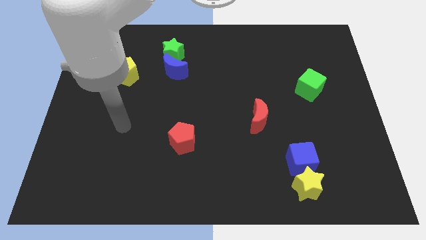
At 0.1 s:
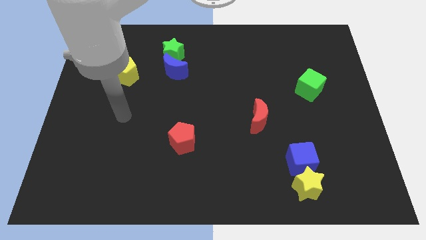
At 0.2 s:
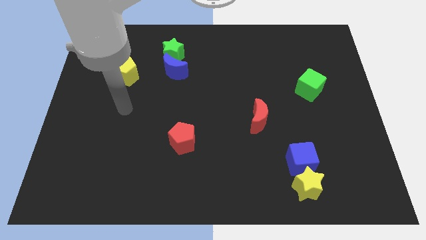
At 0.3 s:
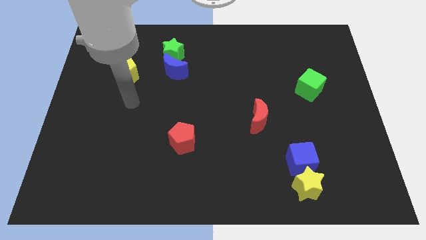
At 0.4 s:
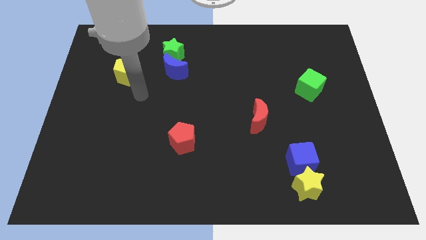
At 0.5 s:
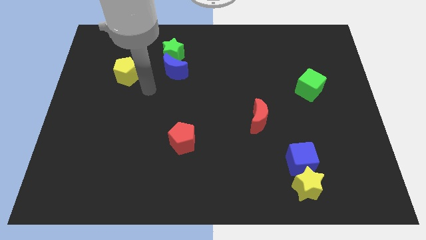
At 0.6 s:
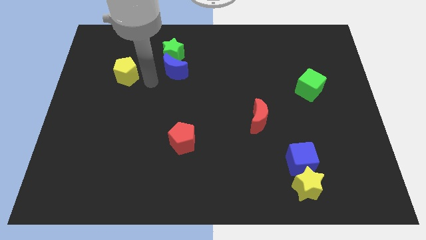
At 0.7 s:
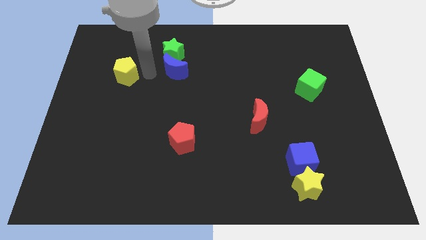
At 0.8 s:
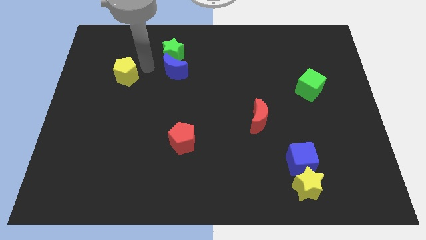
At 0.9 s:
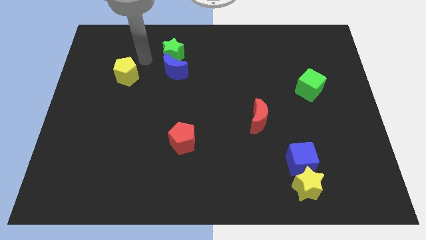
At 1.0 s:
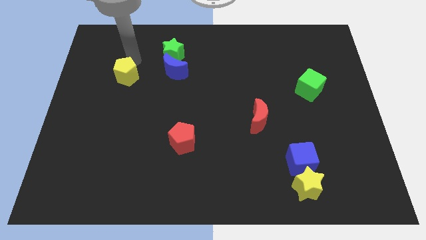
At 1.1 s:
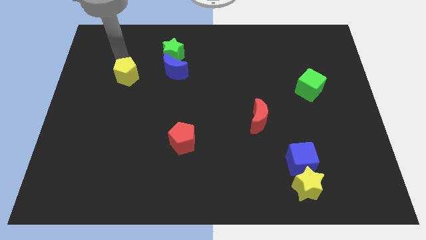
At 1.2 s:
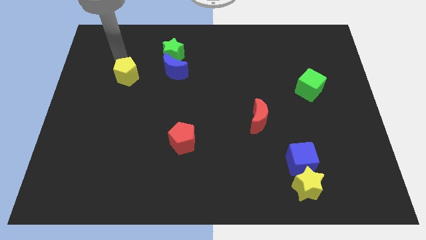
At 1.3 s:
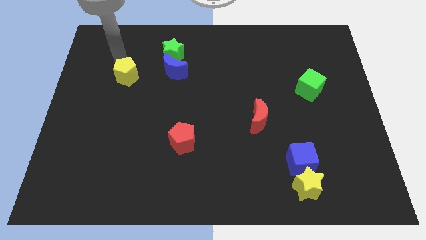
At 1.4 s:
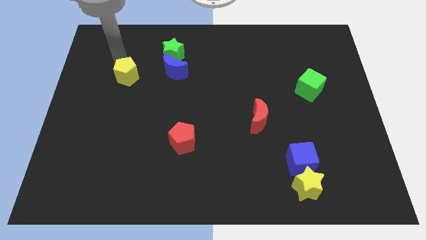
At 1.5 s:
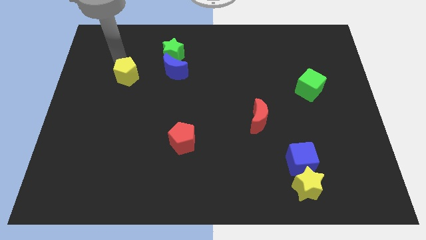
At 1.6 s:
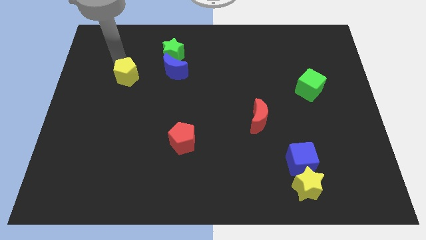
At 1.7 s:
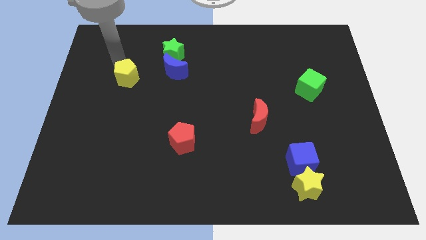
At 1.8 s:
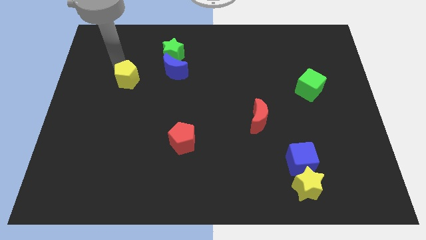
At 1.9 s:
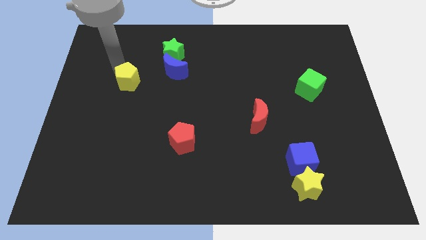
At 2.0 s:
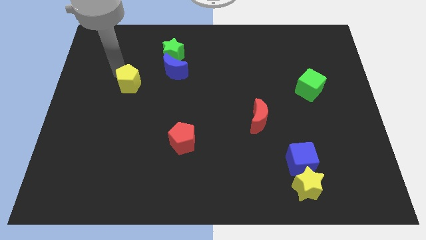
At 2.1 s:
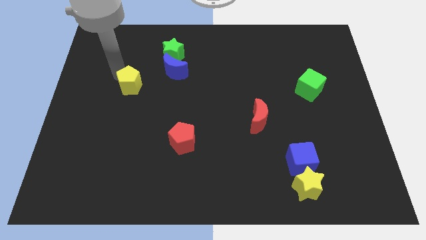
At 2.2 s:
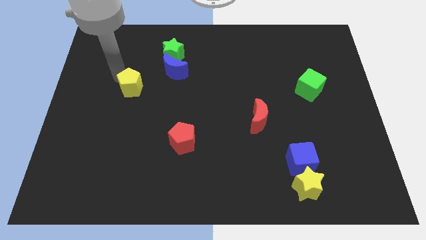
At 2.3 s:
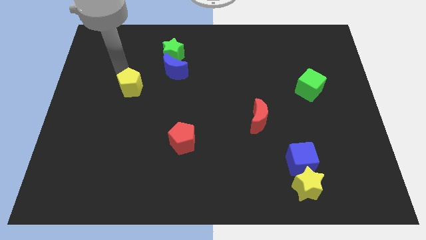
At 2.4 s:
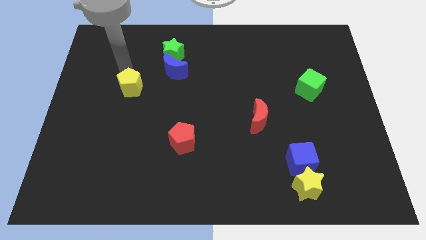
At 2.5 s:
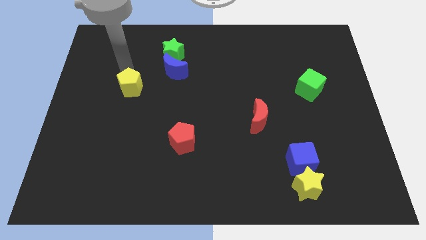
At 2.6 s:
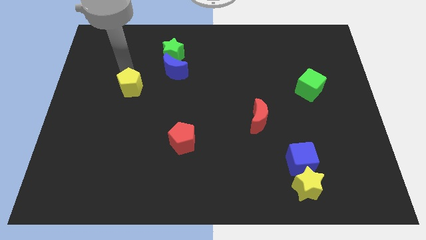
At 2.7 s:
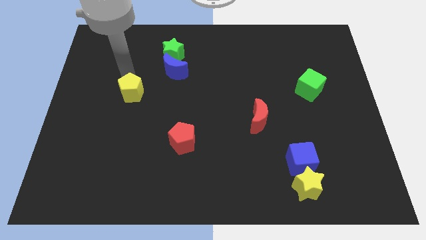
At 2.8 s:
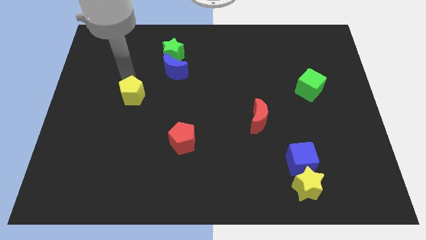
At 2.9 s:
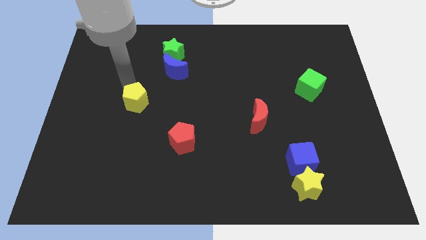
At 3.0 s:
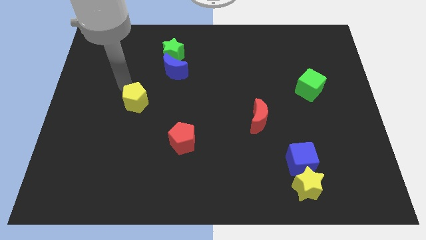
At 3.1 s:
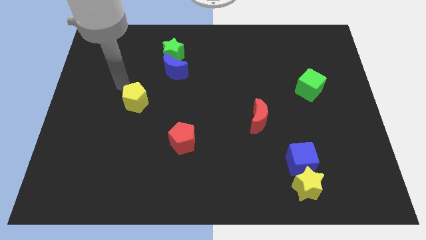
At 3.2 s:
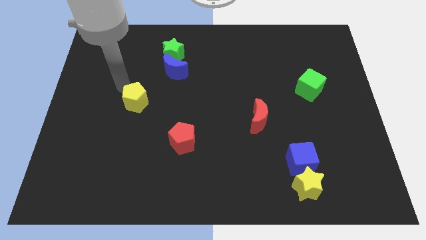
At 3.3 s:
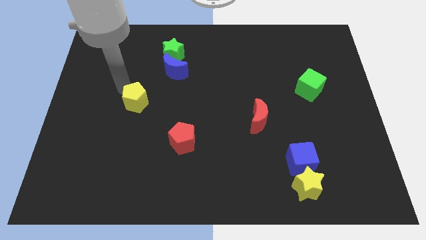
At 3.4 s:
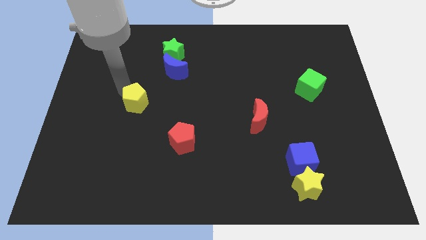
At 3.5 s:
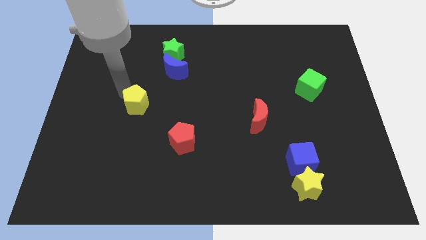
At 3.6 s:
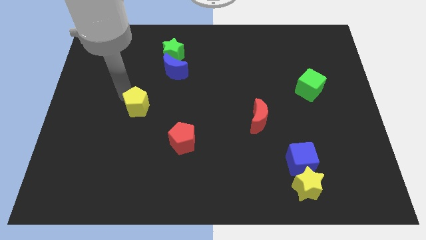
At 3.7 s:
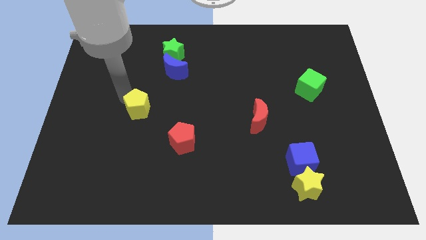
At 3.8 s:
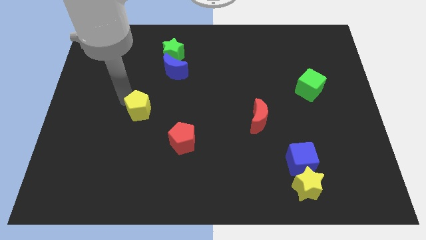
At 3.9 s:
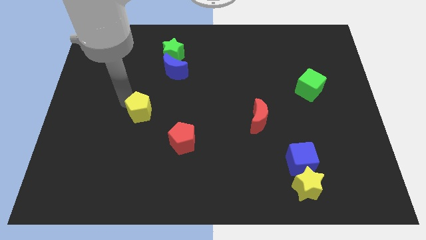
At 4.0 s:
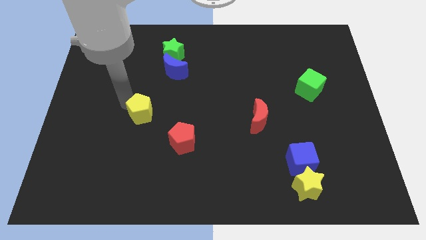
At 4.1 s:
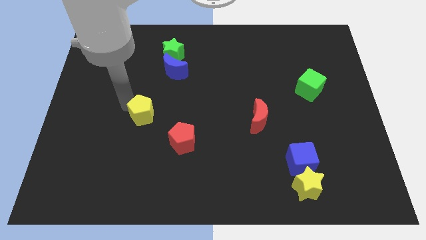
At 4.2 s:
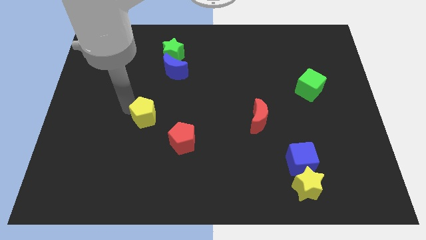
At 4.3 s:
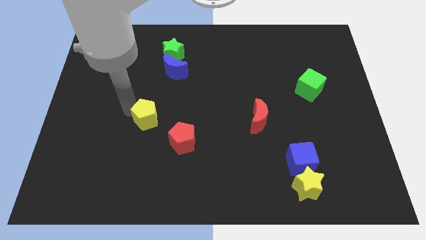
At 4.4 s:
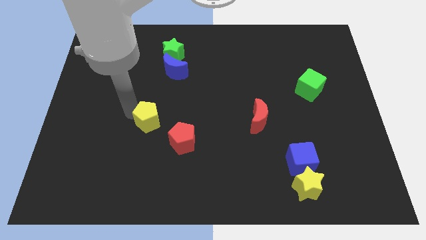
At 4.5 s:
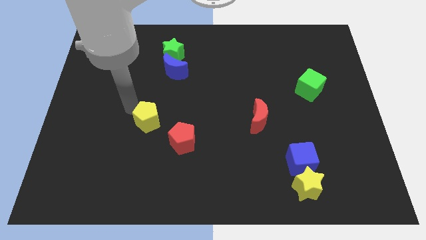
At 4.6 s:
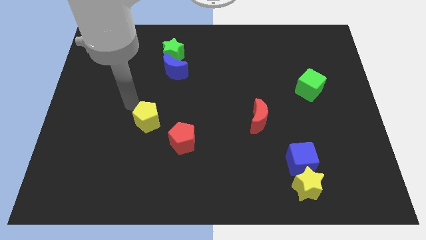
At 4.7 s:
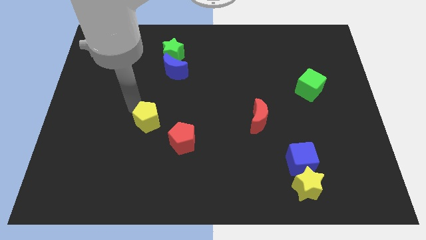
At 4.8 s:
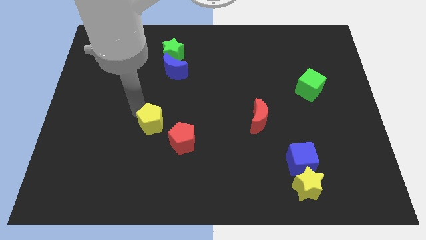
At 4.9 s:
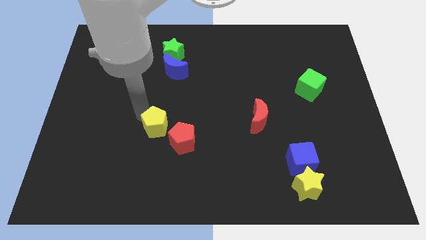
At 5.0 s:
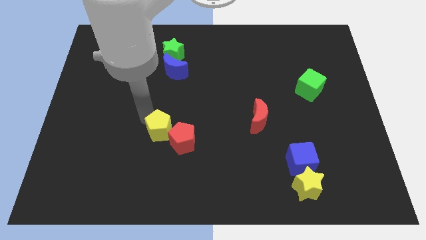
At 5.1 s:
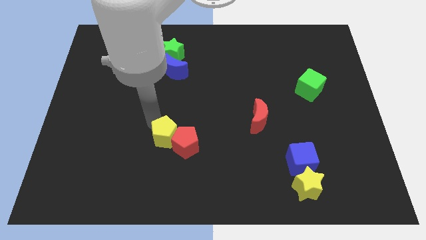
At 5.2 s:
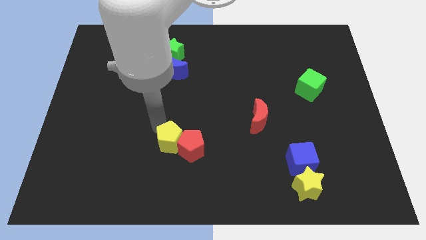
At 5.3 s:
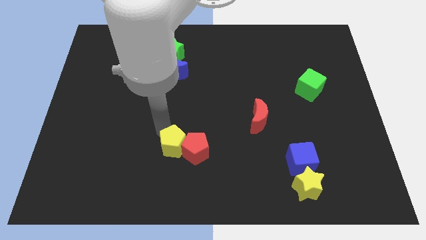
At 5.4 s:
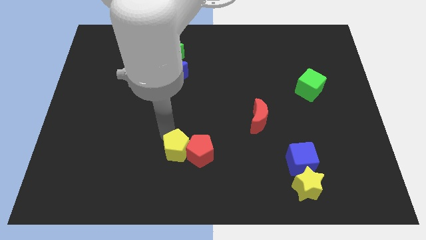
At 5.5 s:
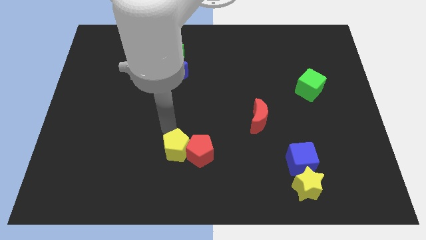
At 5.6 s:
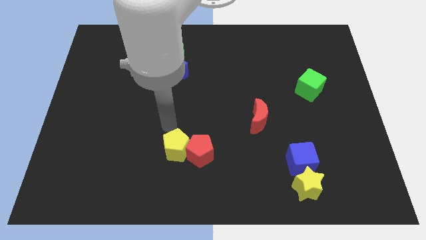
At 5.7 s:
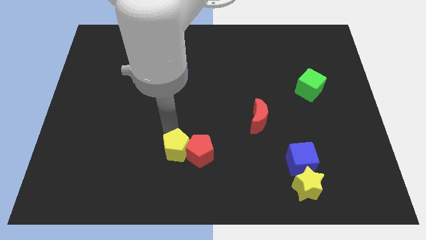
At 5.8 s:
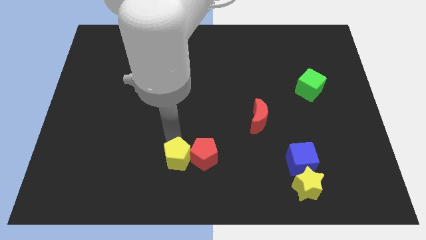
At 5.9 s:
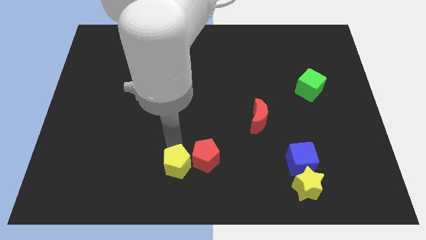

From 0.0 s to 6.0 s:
slide the yellow pentagon to the bottom side
